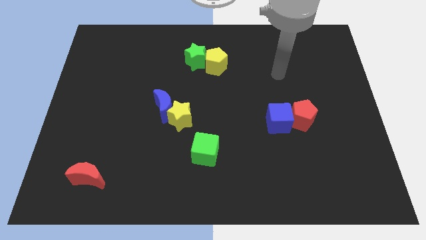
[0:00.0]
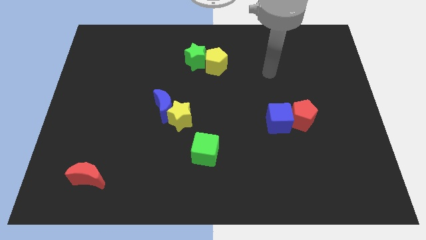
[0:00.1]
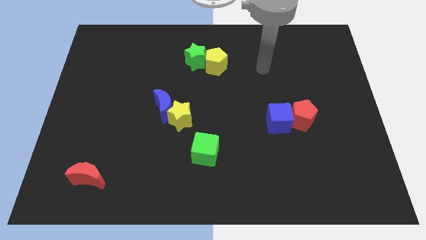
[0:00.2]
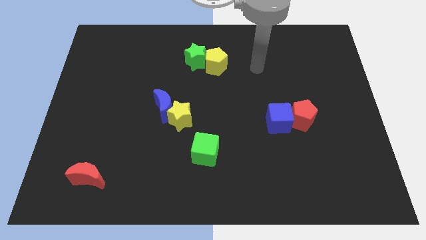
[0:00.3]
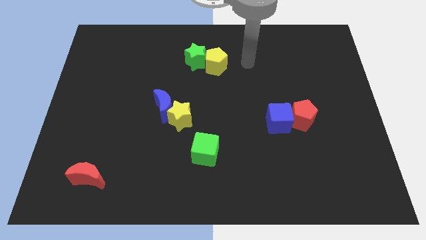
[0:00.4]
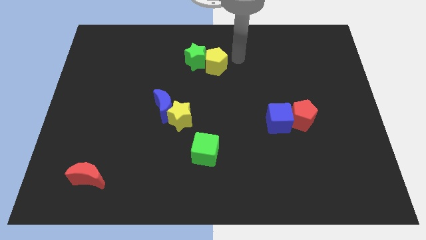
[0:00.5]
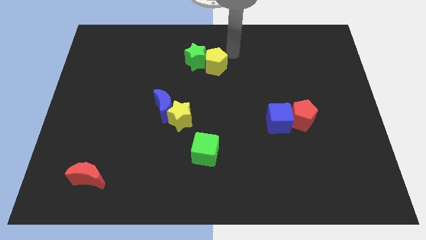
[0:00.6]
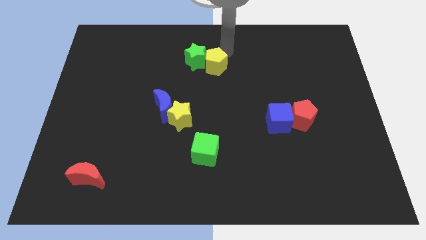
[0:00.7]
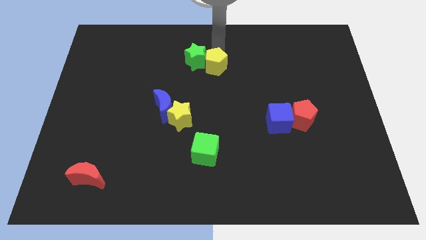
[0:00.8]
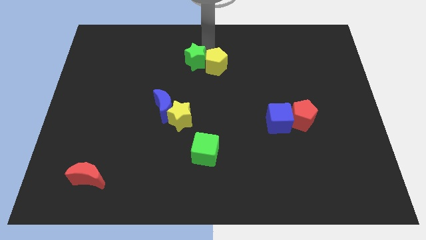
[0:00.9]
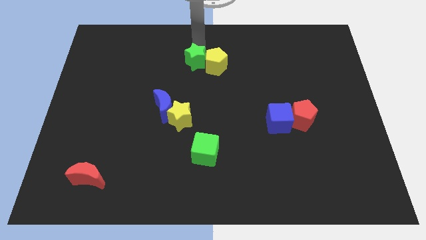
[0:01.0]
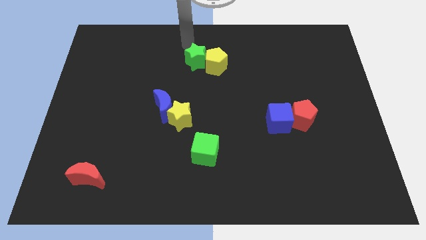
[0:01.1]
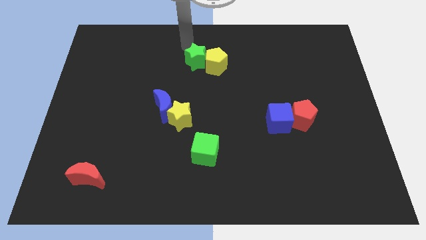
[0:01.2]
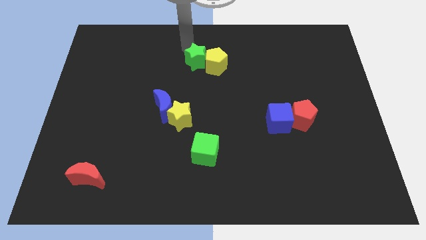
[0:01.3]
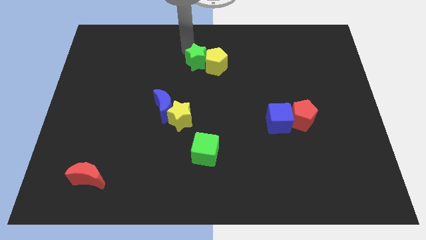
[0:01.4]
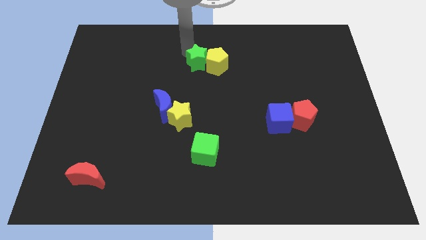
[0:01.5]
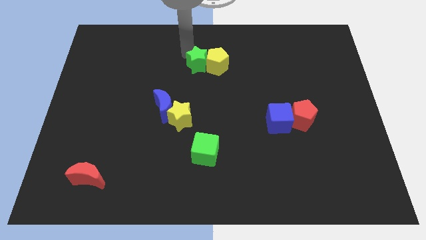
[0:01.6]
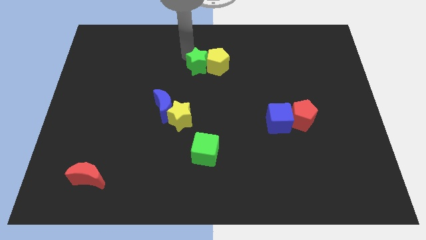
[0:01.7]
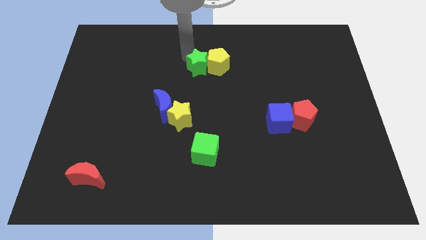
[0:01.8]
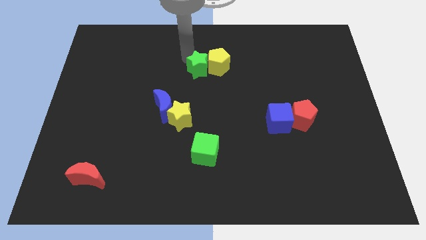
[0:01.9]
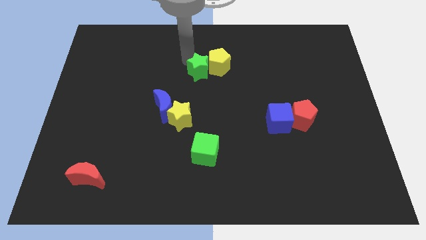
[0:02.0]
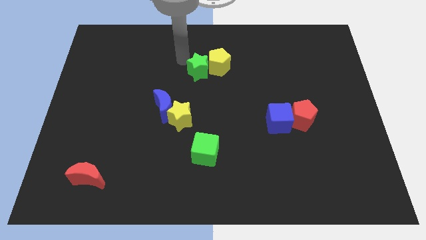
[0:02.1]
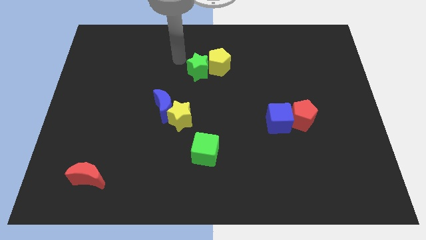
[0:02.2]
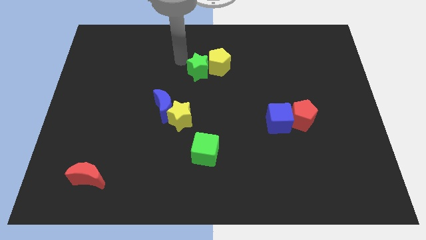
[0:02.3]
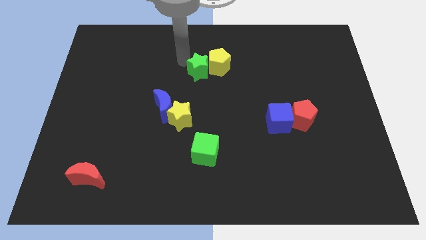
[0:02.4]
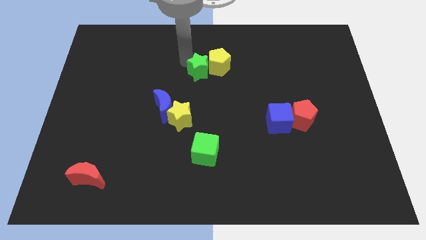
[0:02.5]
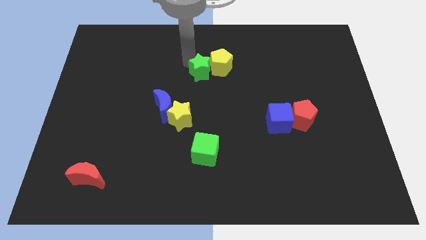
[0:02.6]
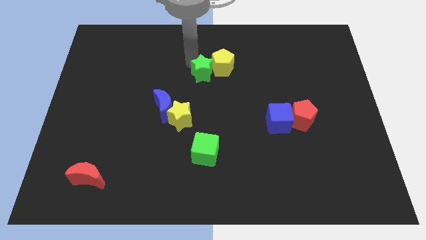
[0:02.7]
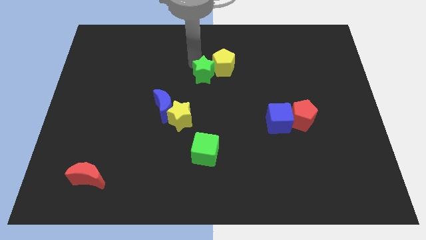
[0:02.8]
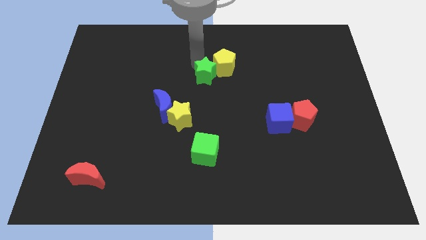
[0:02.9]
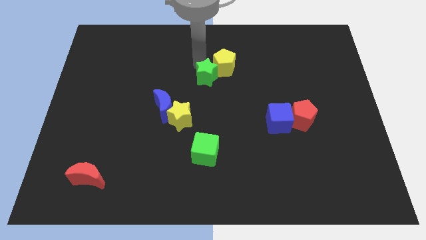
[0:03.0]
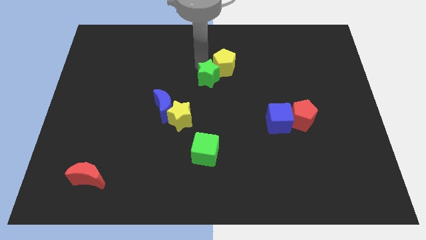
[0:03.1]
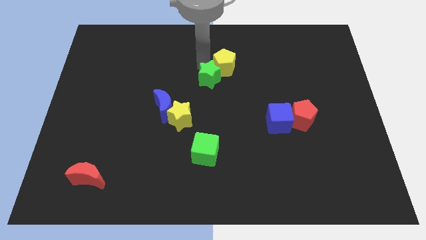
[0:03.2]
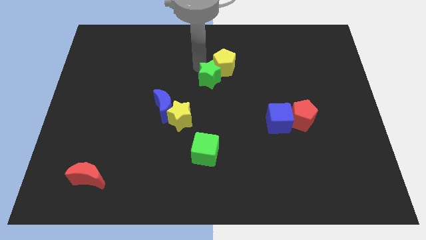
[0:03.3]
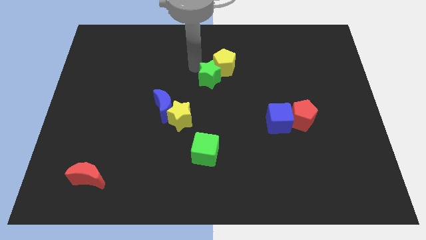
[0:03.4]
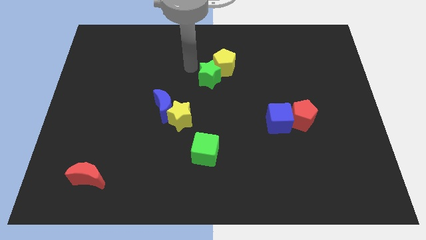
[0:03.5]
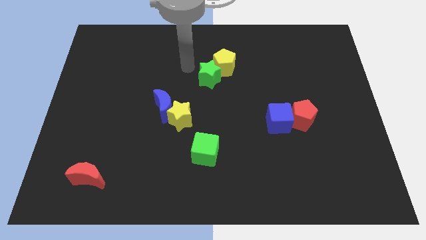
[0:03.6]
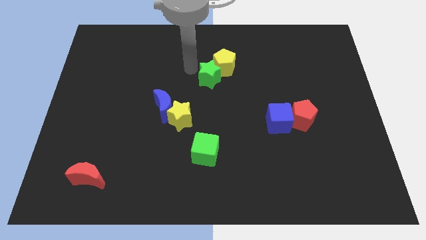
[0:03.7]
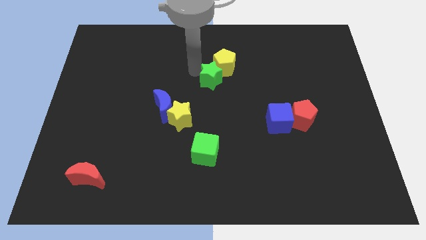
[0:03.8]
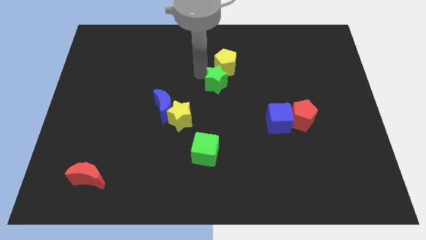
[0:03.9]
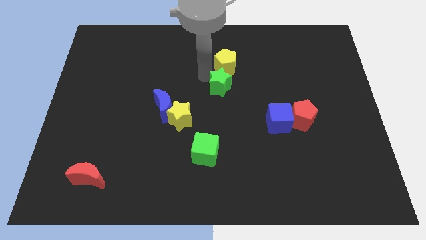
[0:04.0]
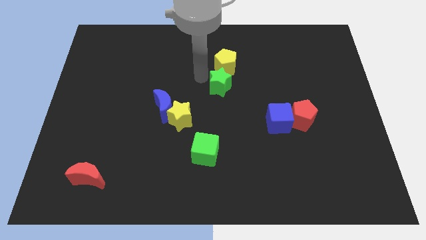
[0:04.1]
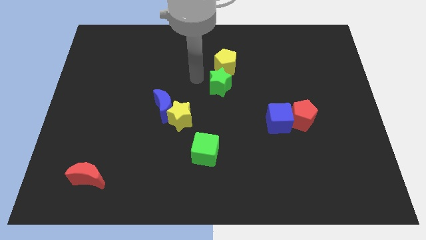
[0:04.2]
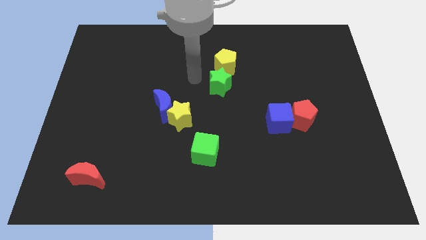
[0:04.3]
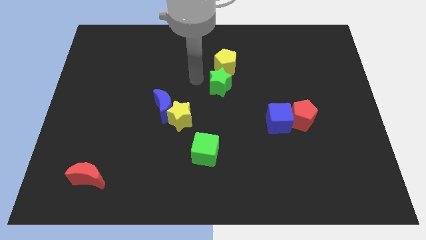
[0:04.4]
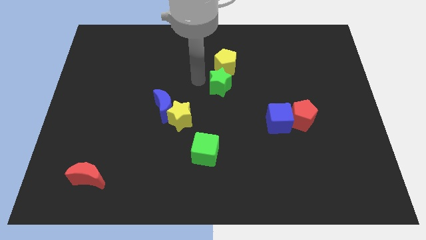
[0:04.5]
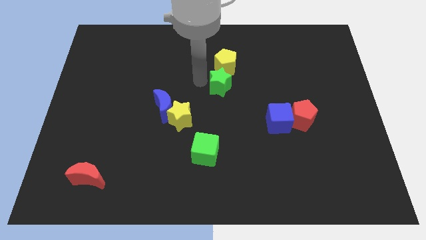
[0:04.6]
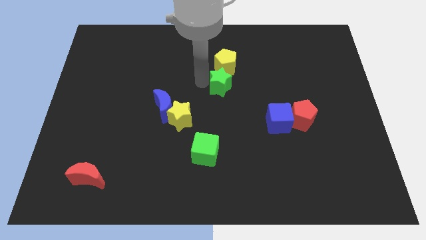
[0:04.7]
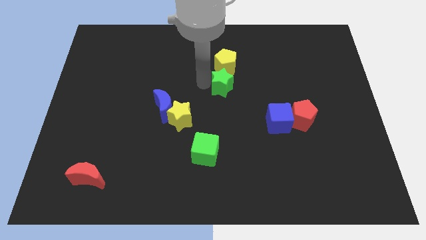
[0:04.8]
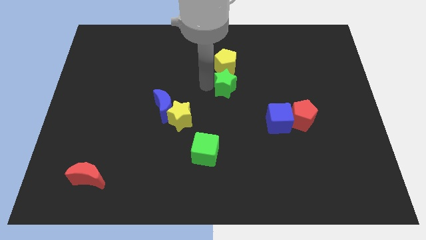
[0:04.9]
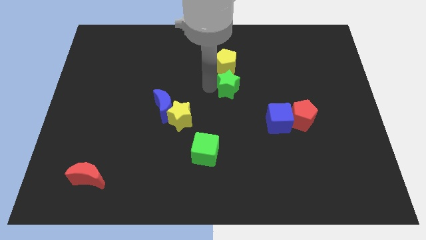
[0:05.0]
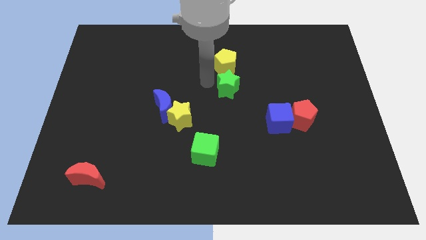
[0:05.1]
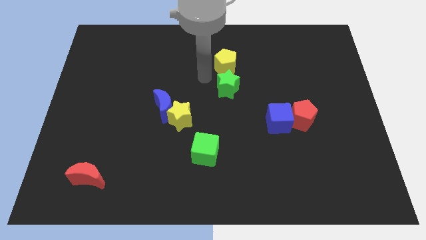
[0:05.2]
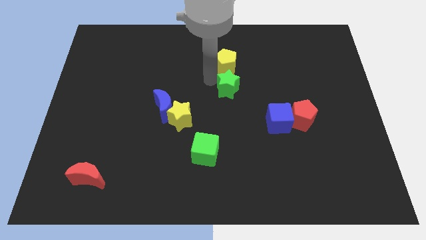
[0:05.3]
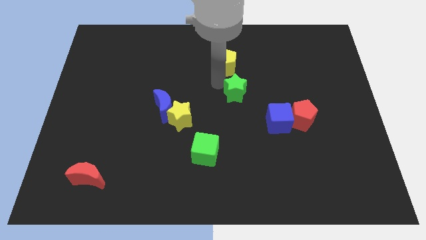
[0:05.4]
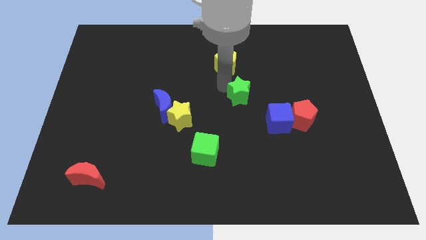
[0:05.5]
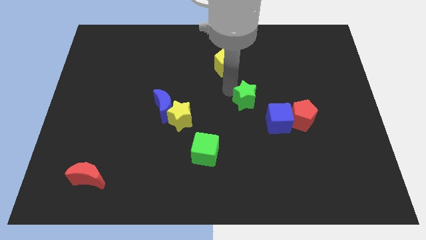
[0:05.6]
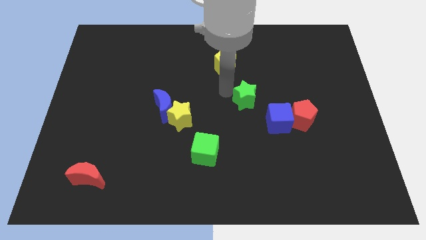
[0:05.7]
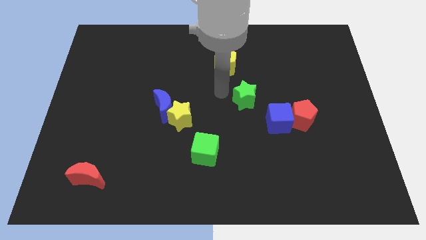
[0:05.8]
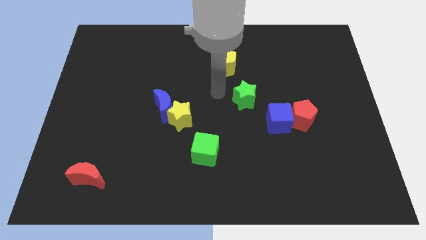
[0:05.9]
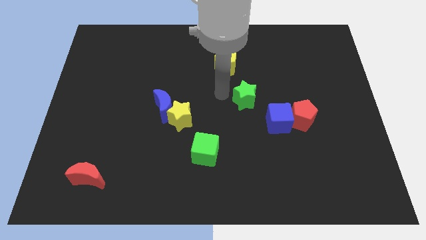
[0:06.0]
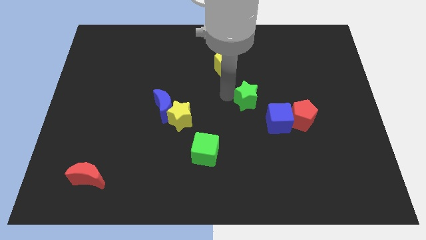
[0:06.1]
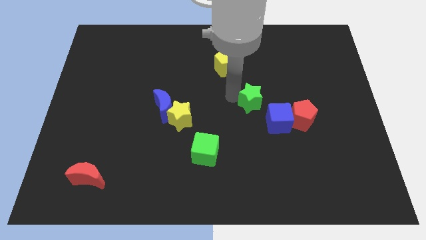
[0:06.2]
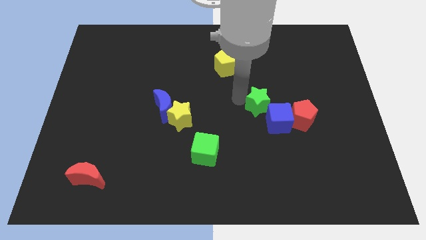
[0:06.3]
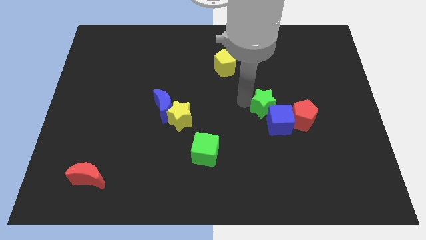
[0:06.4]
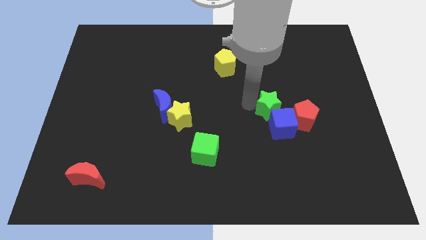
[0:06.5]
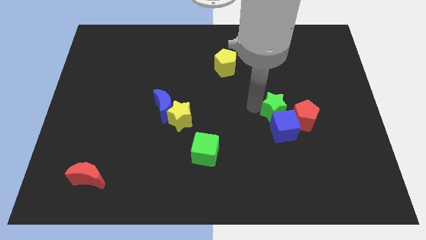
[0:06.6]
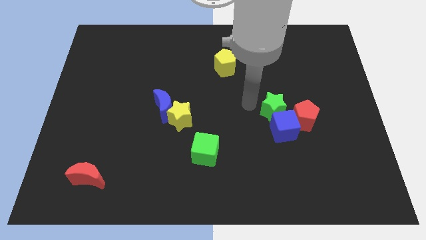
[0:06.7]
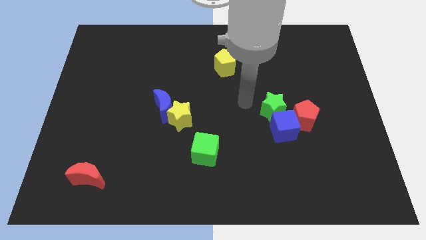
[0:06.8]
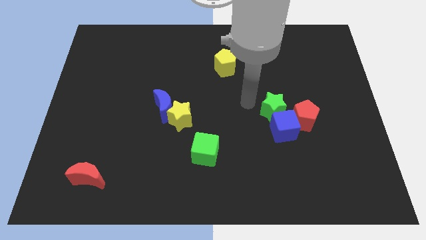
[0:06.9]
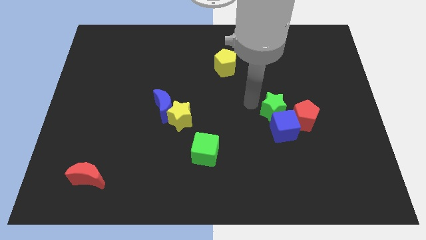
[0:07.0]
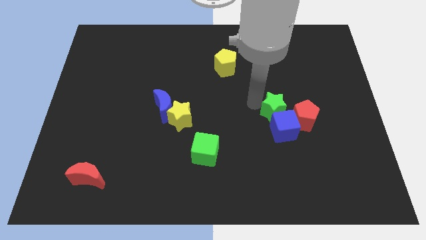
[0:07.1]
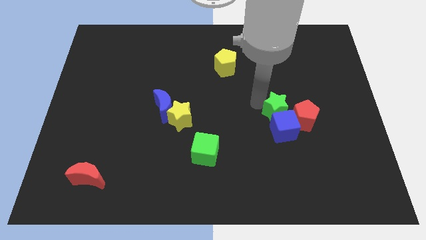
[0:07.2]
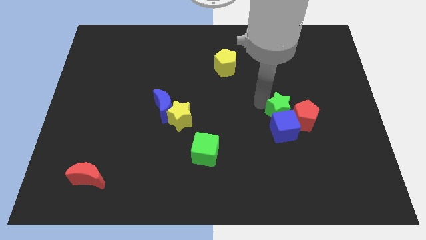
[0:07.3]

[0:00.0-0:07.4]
move the green star towards the red pentagon
